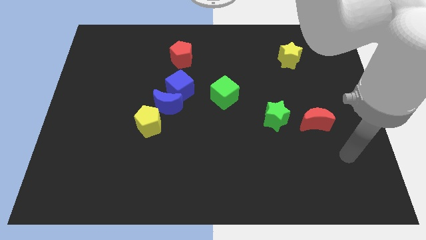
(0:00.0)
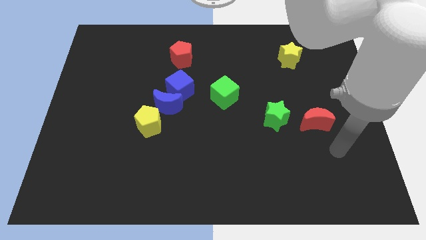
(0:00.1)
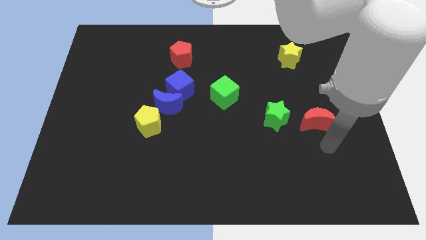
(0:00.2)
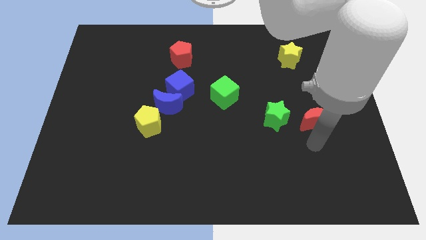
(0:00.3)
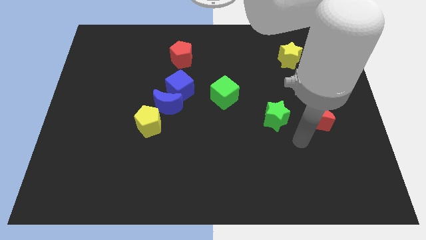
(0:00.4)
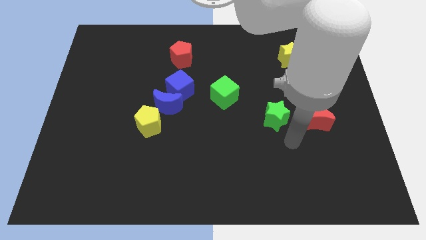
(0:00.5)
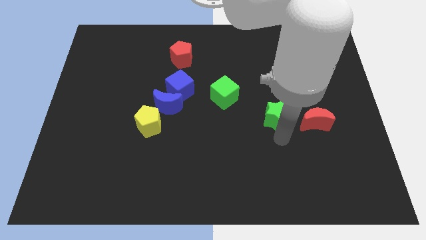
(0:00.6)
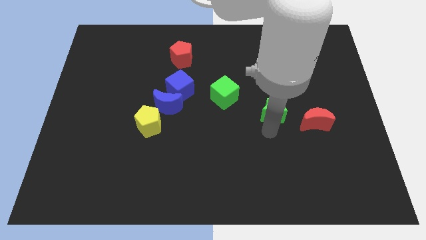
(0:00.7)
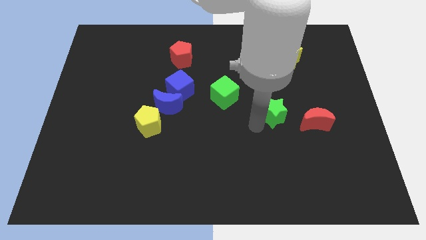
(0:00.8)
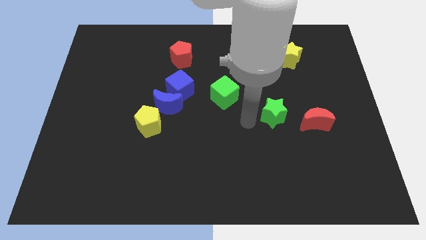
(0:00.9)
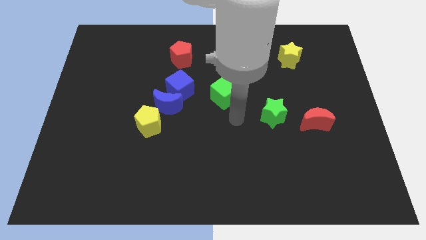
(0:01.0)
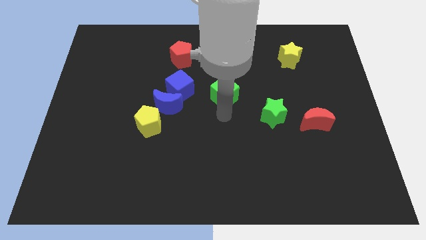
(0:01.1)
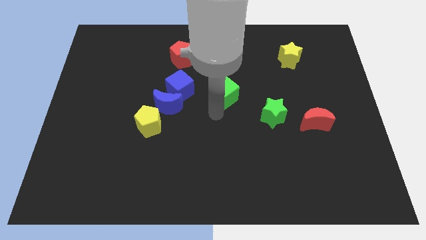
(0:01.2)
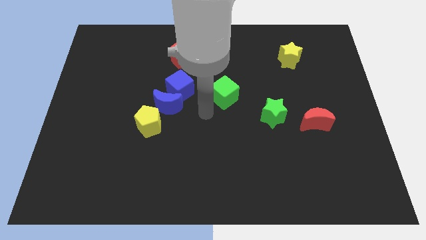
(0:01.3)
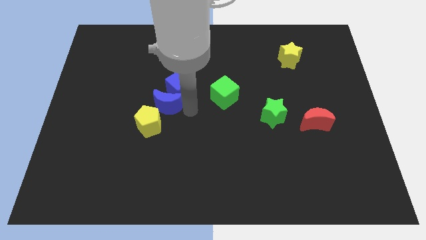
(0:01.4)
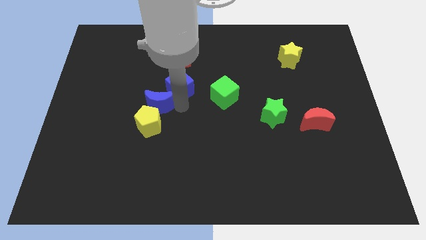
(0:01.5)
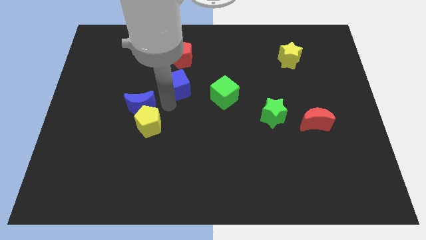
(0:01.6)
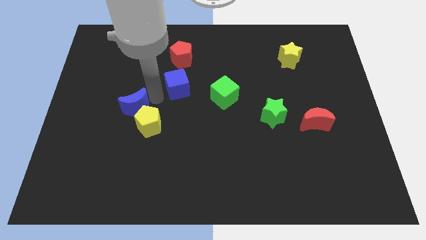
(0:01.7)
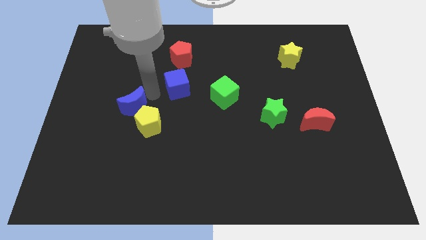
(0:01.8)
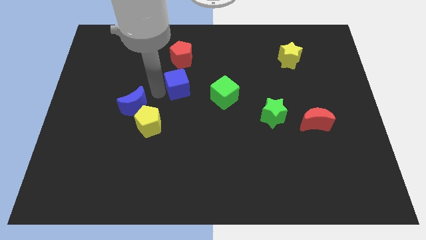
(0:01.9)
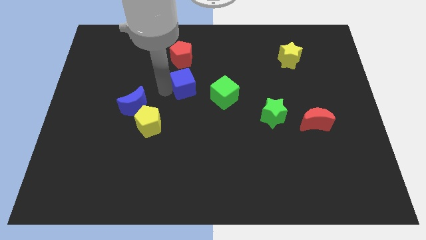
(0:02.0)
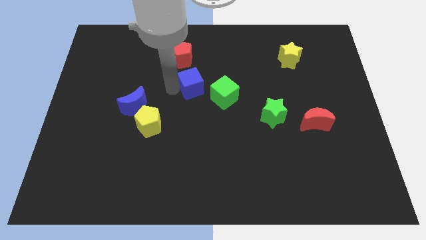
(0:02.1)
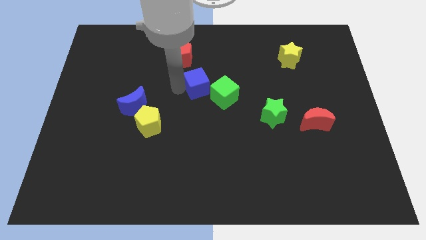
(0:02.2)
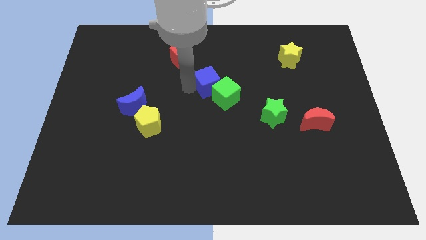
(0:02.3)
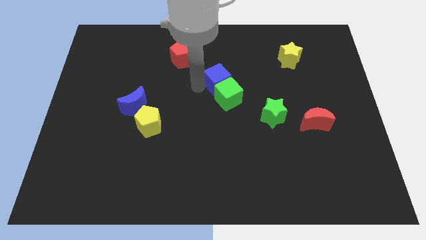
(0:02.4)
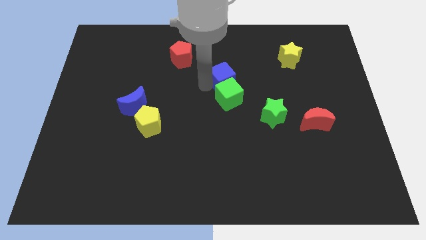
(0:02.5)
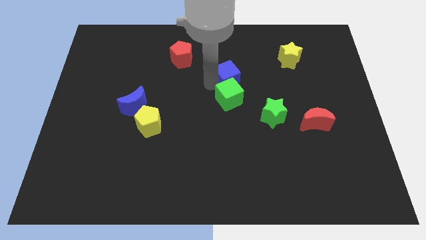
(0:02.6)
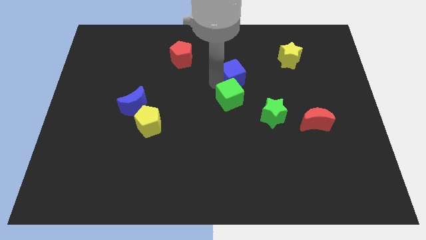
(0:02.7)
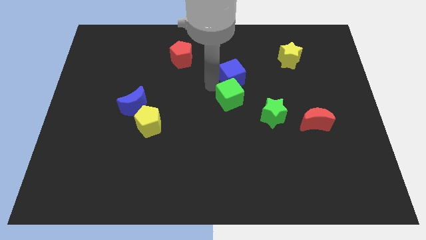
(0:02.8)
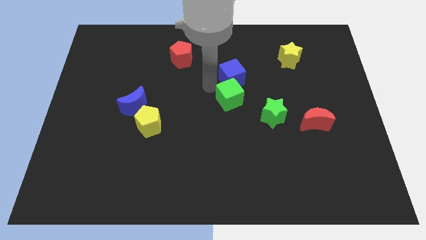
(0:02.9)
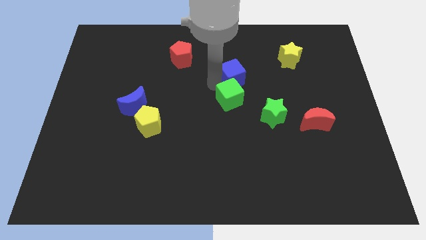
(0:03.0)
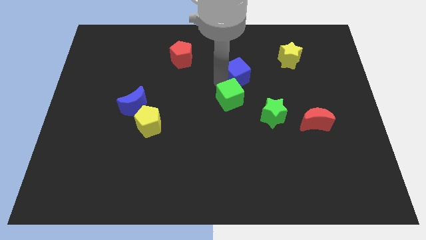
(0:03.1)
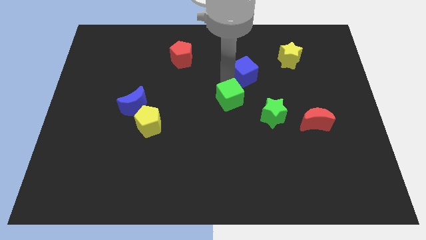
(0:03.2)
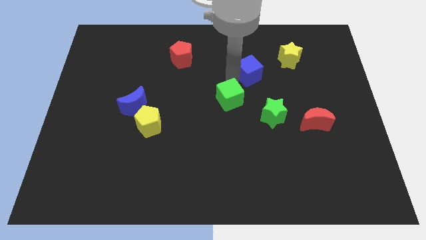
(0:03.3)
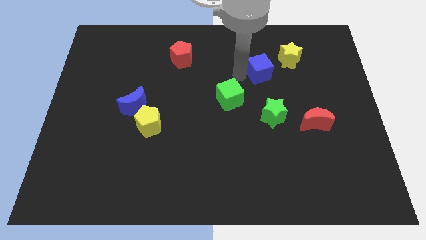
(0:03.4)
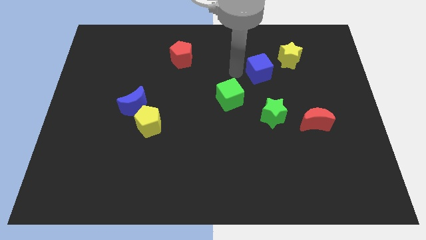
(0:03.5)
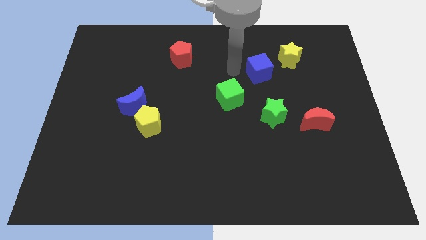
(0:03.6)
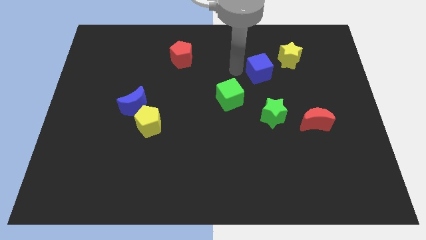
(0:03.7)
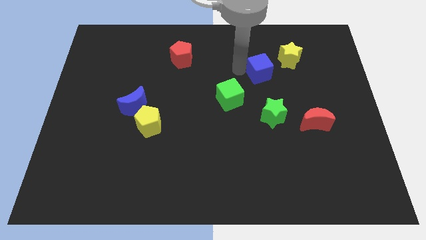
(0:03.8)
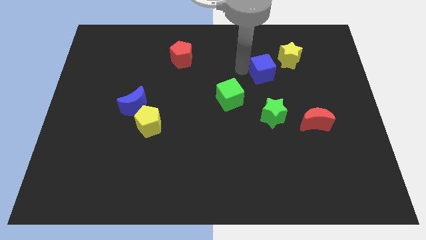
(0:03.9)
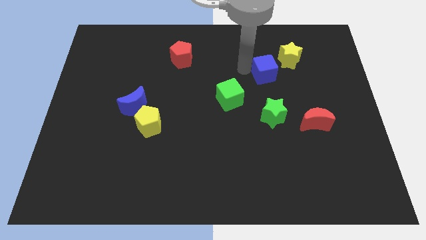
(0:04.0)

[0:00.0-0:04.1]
push the blue cube to the right

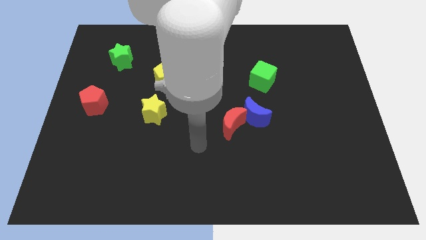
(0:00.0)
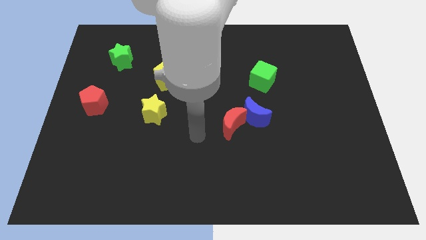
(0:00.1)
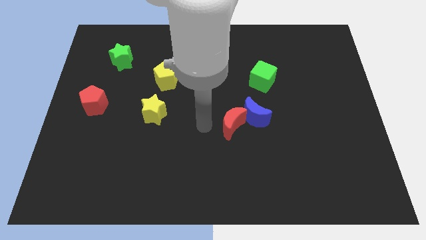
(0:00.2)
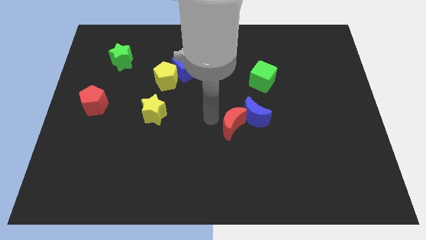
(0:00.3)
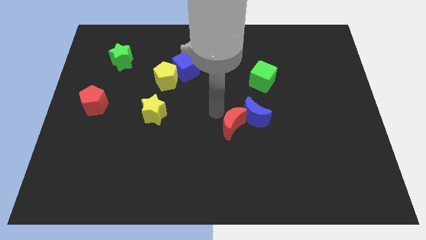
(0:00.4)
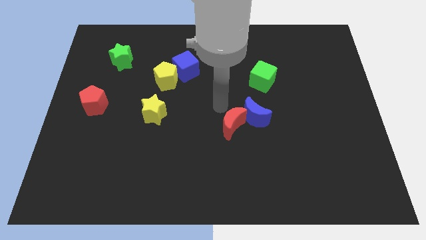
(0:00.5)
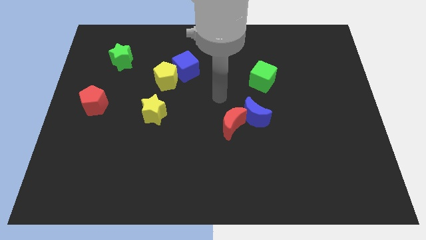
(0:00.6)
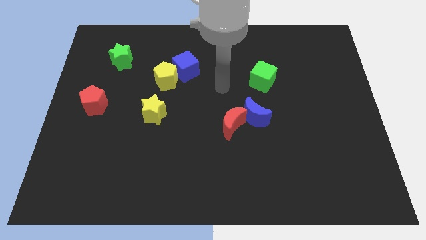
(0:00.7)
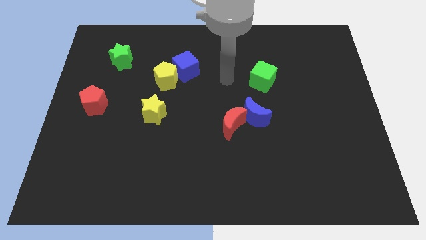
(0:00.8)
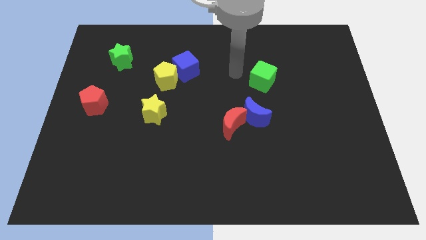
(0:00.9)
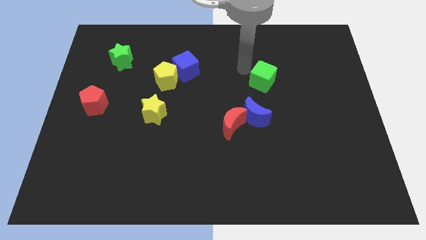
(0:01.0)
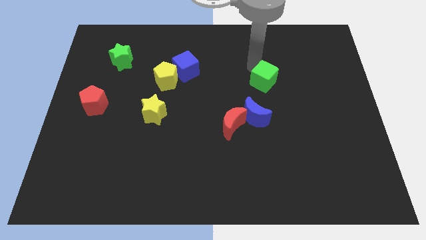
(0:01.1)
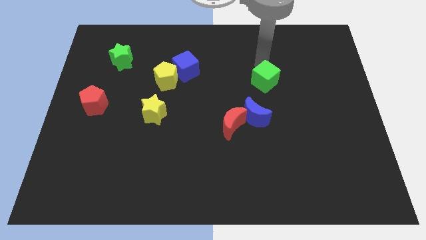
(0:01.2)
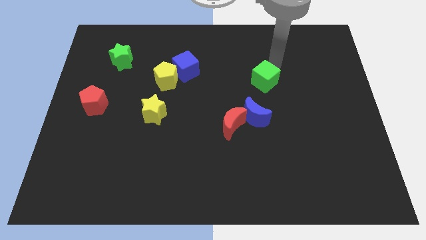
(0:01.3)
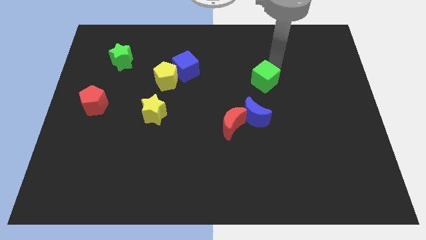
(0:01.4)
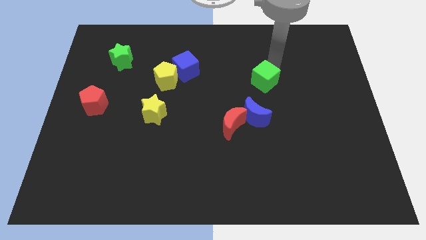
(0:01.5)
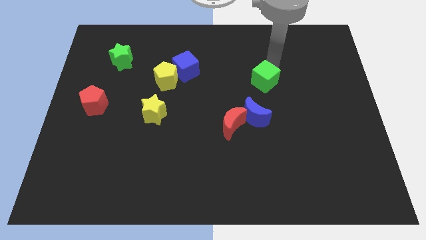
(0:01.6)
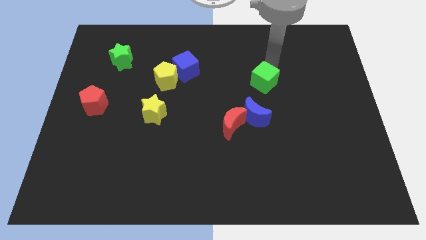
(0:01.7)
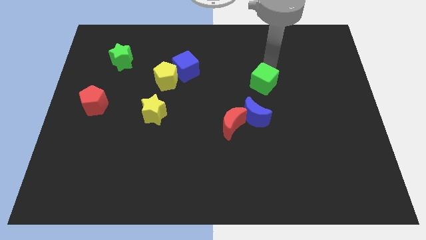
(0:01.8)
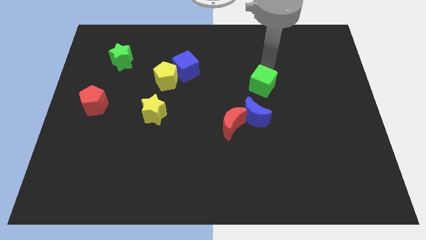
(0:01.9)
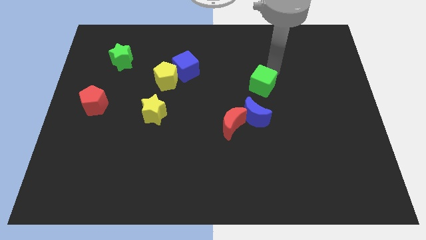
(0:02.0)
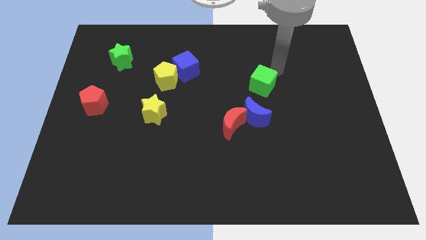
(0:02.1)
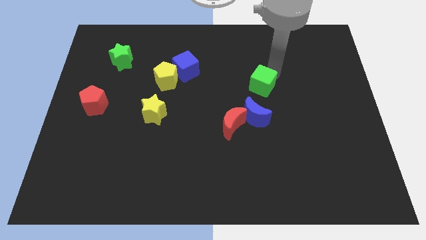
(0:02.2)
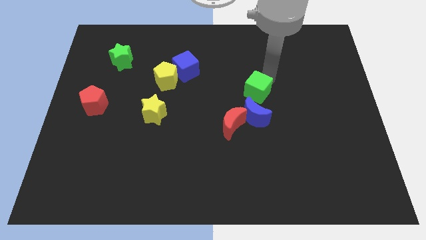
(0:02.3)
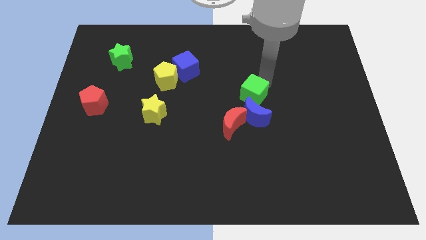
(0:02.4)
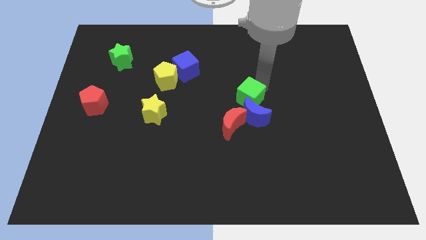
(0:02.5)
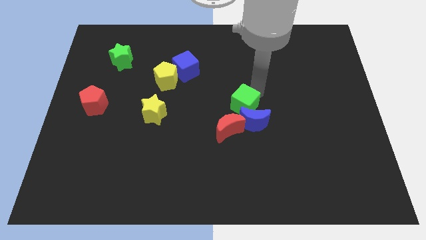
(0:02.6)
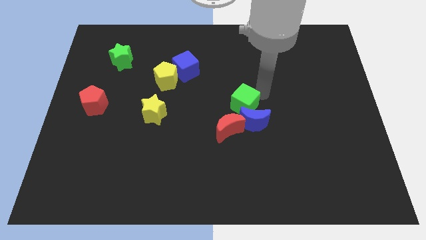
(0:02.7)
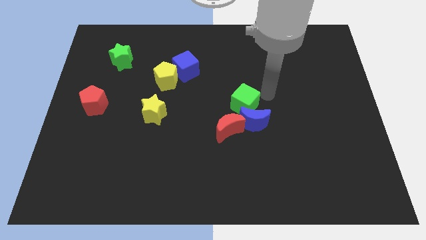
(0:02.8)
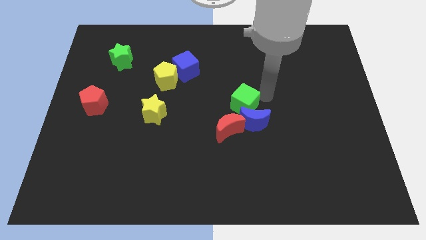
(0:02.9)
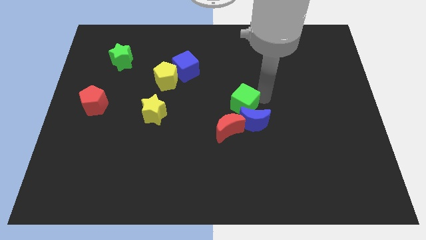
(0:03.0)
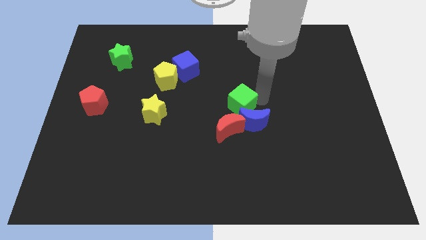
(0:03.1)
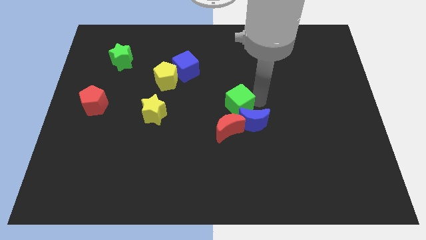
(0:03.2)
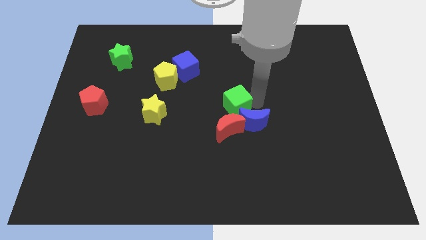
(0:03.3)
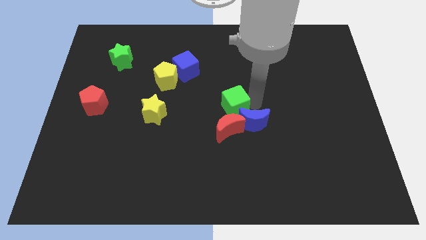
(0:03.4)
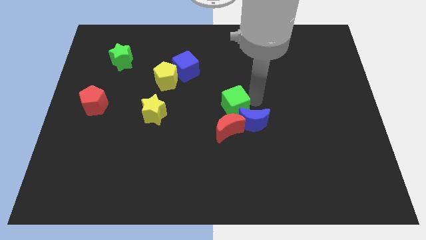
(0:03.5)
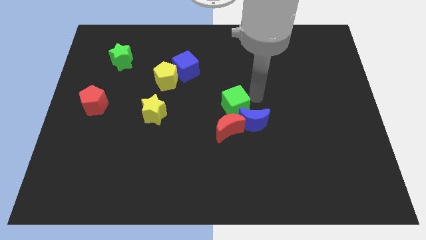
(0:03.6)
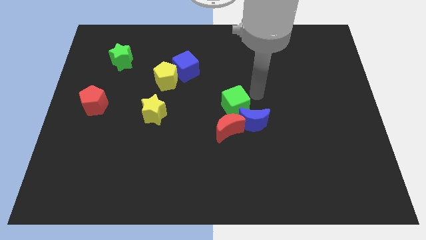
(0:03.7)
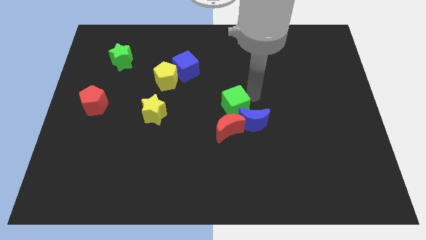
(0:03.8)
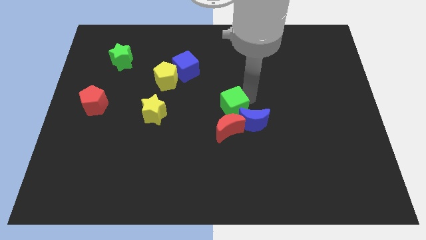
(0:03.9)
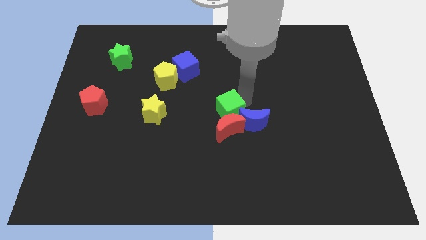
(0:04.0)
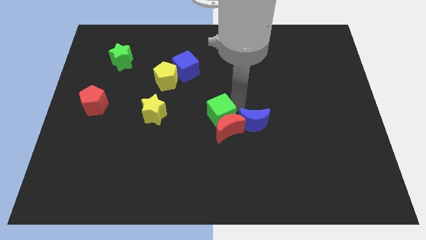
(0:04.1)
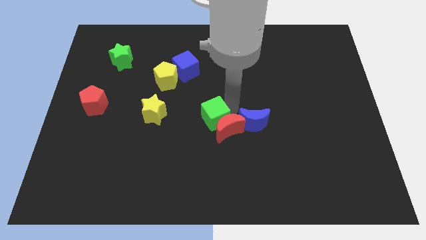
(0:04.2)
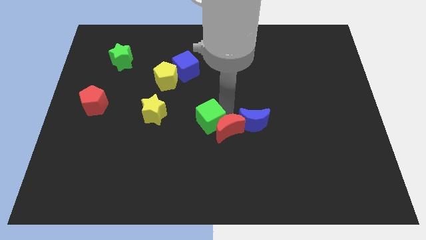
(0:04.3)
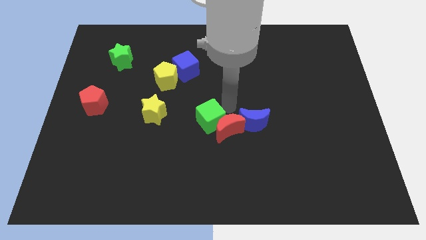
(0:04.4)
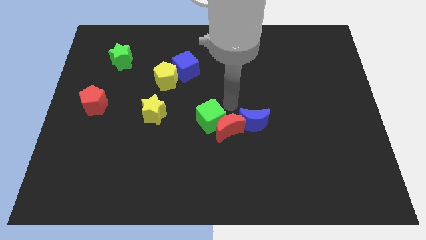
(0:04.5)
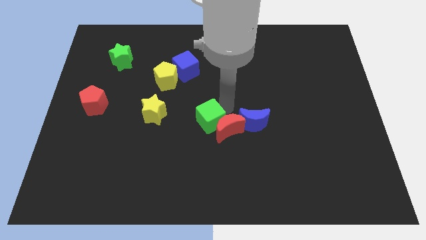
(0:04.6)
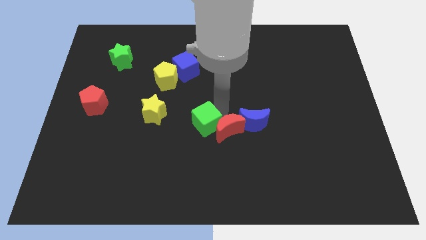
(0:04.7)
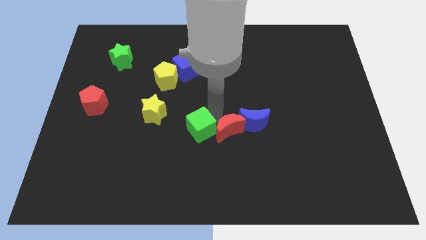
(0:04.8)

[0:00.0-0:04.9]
move the green cube diagonally downwards and left
